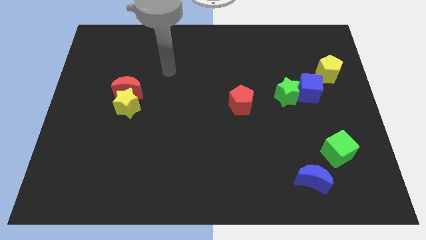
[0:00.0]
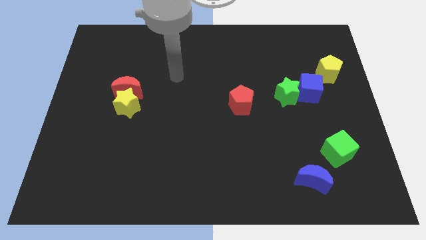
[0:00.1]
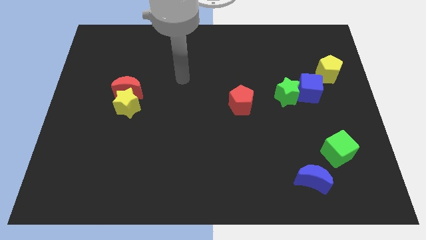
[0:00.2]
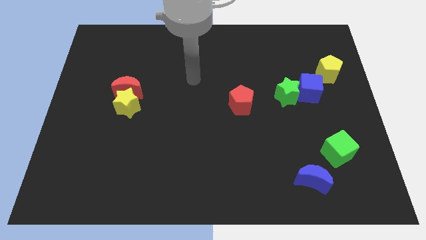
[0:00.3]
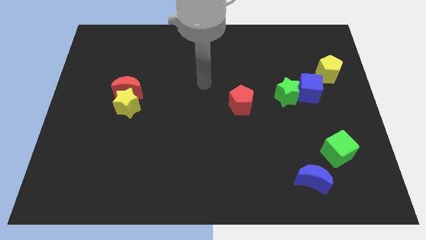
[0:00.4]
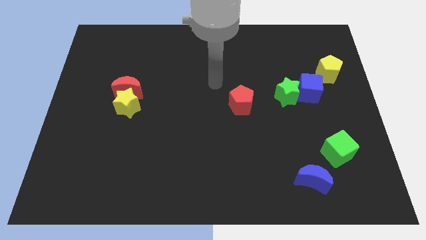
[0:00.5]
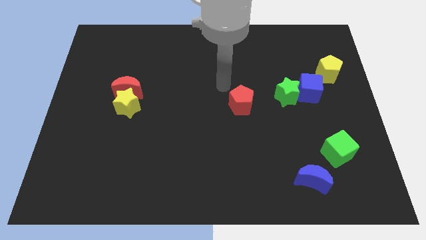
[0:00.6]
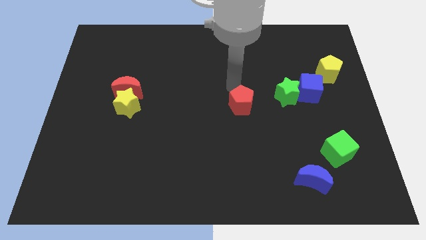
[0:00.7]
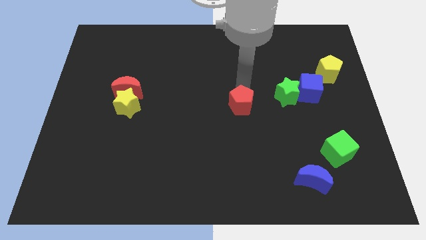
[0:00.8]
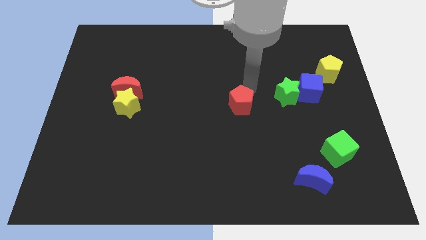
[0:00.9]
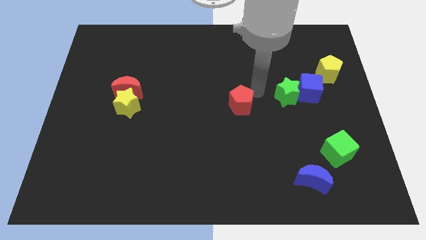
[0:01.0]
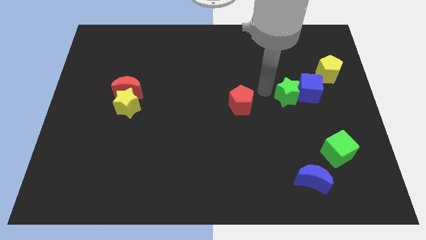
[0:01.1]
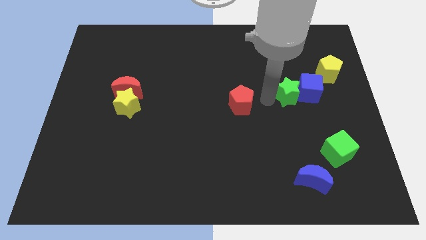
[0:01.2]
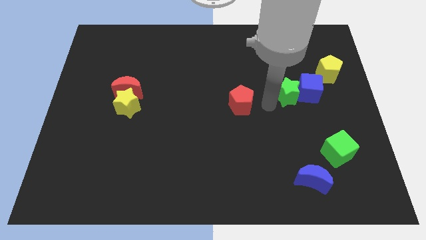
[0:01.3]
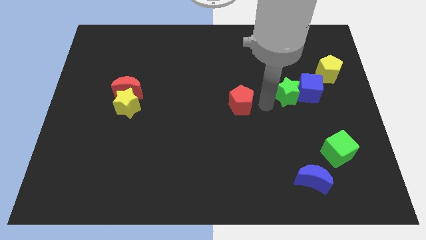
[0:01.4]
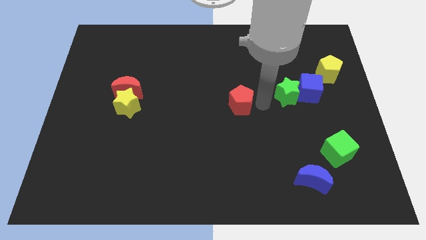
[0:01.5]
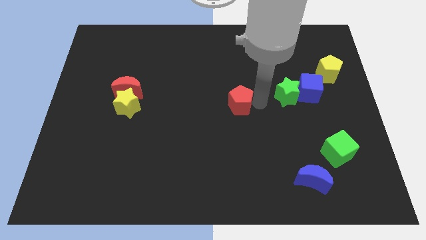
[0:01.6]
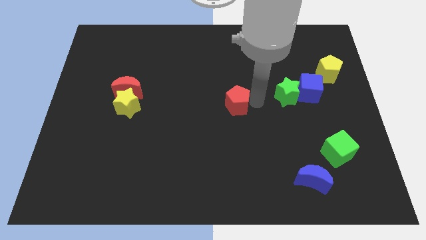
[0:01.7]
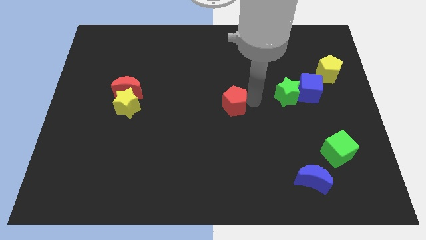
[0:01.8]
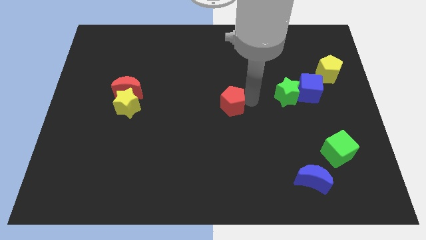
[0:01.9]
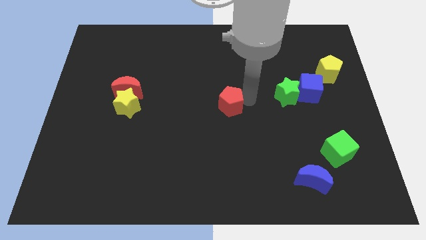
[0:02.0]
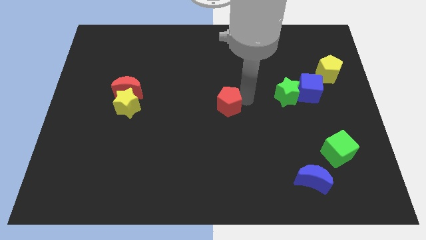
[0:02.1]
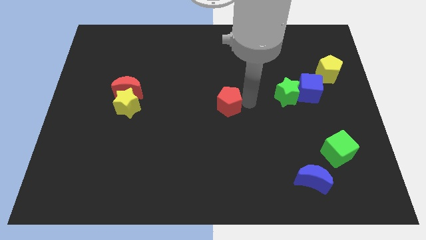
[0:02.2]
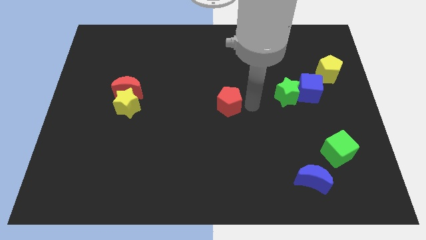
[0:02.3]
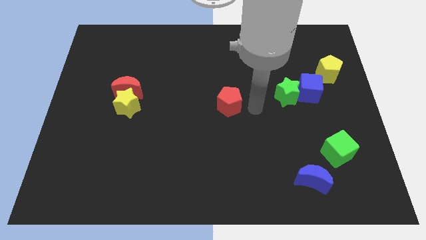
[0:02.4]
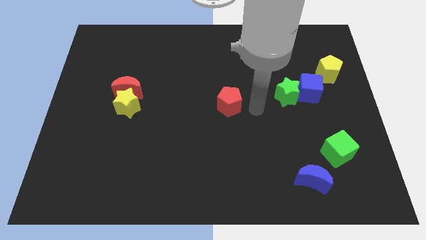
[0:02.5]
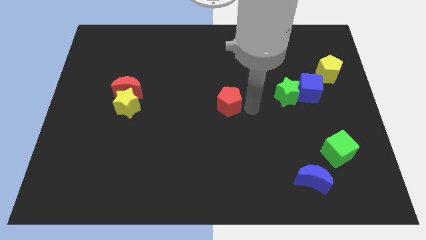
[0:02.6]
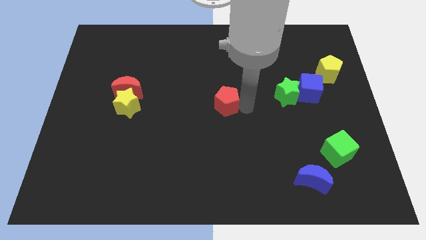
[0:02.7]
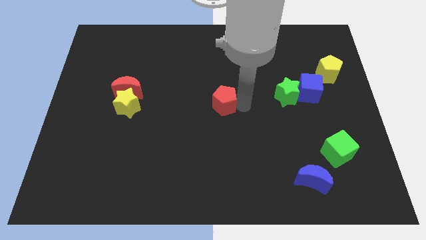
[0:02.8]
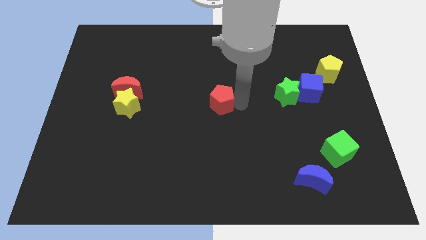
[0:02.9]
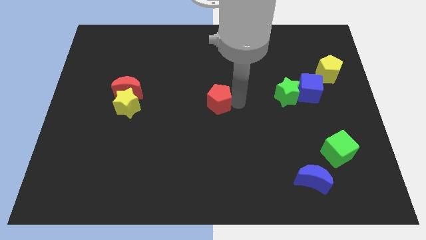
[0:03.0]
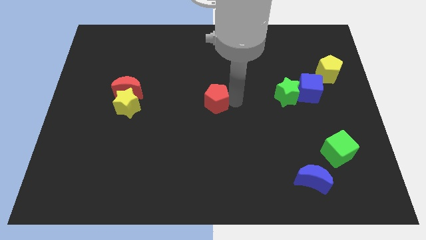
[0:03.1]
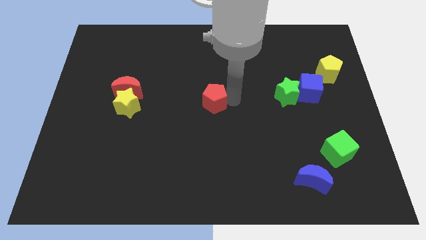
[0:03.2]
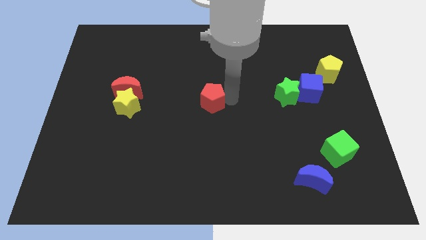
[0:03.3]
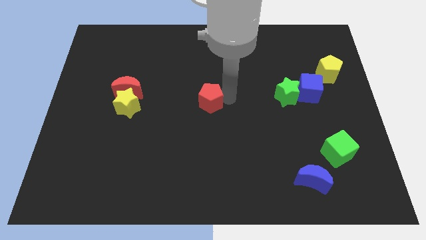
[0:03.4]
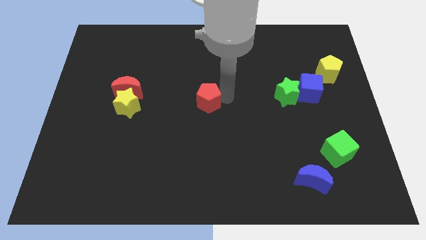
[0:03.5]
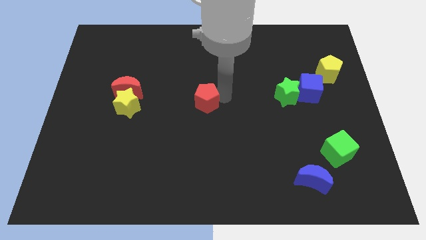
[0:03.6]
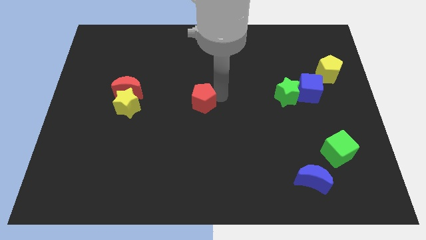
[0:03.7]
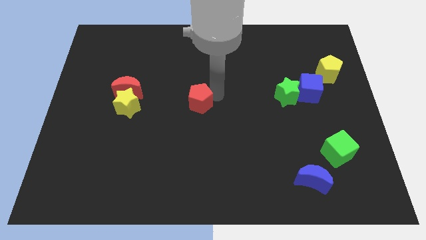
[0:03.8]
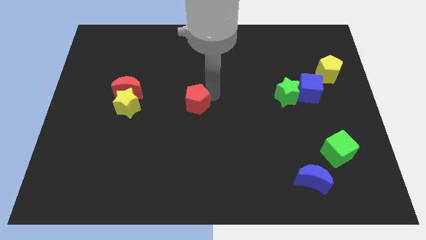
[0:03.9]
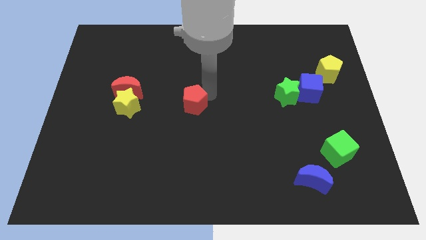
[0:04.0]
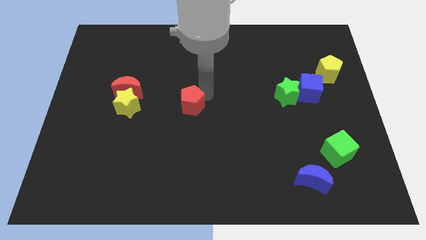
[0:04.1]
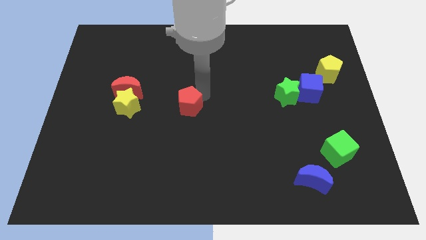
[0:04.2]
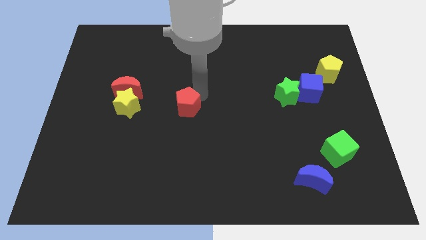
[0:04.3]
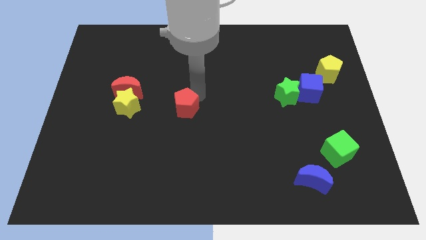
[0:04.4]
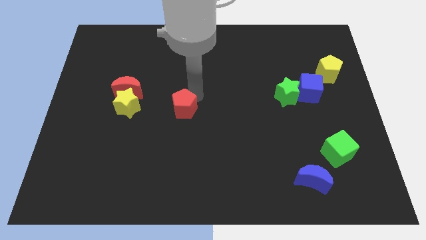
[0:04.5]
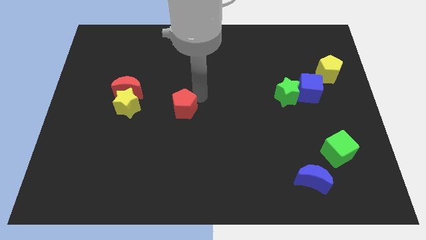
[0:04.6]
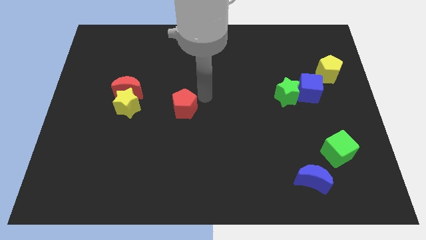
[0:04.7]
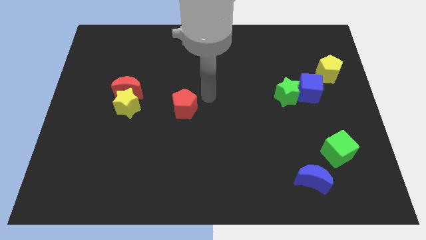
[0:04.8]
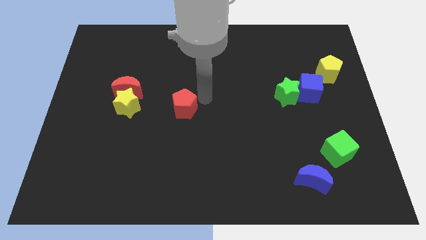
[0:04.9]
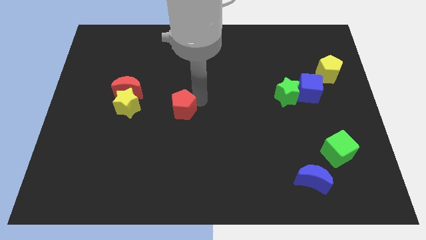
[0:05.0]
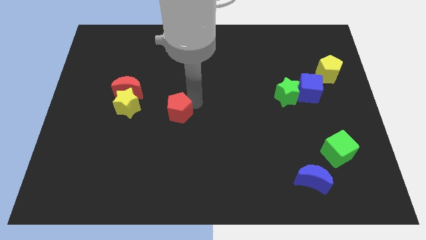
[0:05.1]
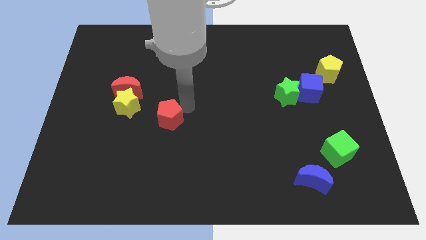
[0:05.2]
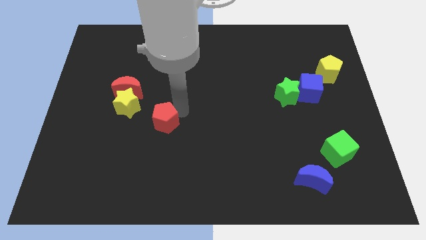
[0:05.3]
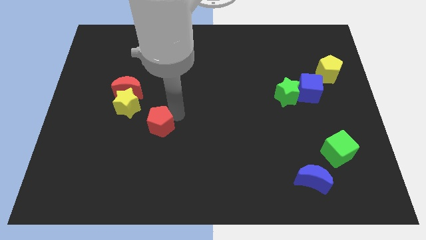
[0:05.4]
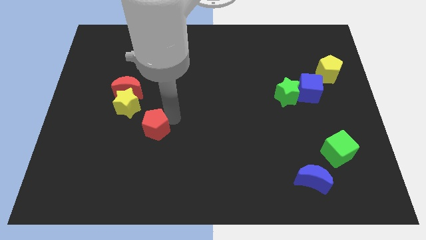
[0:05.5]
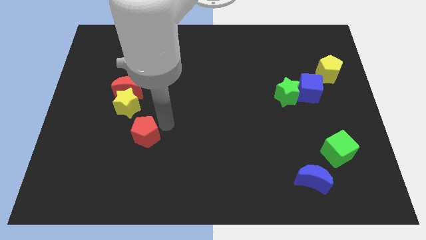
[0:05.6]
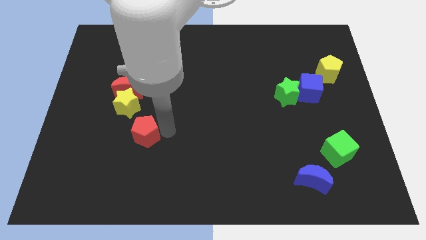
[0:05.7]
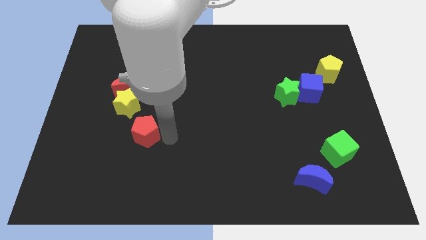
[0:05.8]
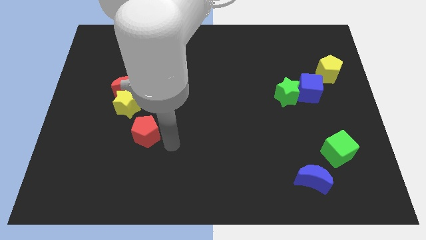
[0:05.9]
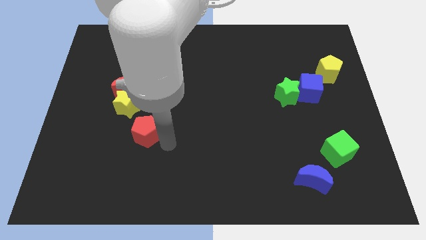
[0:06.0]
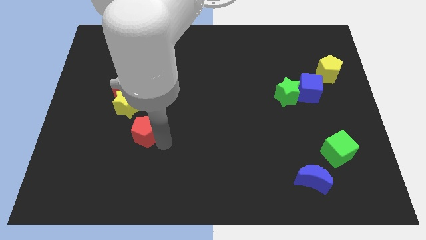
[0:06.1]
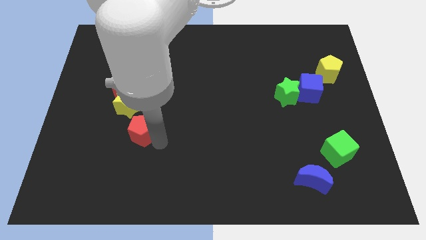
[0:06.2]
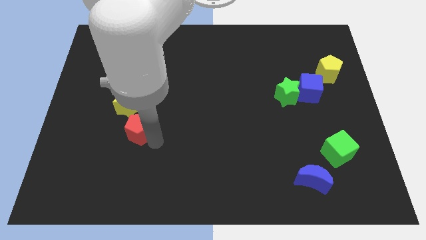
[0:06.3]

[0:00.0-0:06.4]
move the red pentagon to the left

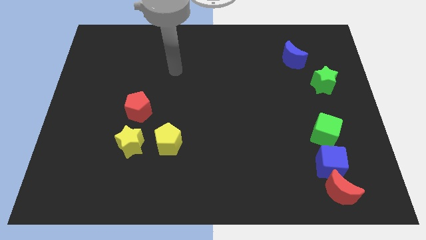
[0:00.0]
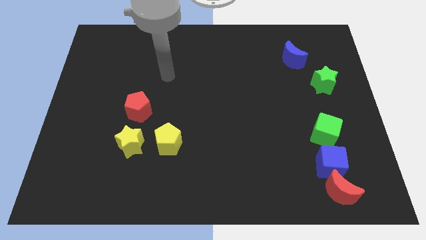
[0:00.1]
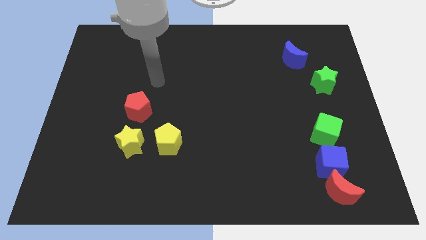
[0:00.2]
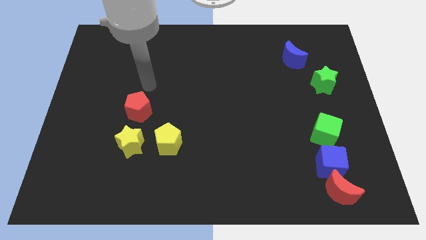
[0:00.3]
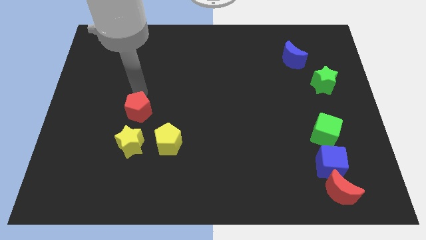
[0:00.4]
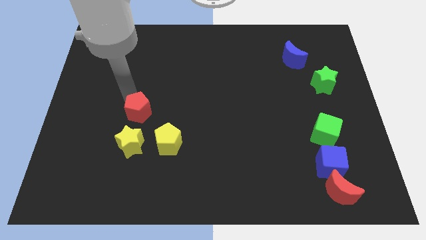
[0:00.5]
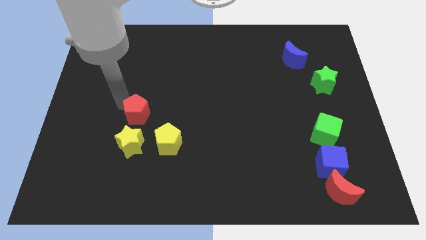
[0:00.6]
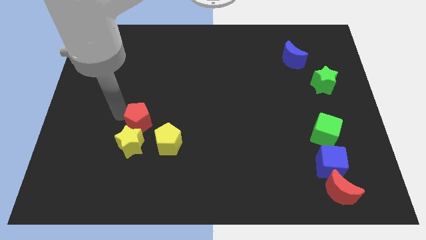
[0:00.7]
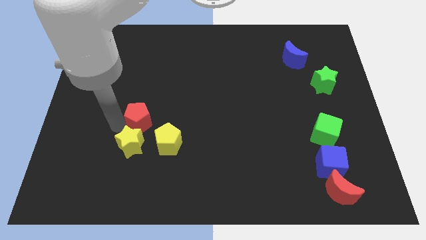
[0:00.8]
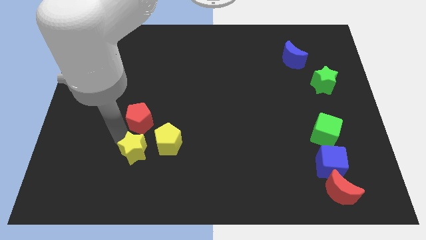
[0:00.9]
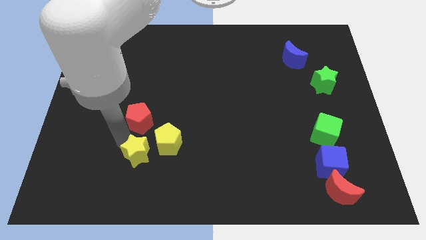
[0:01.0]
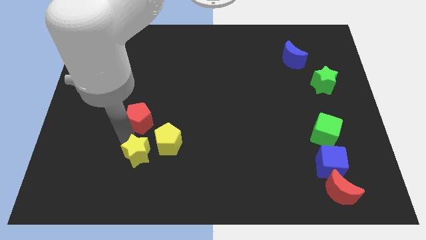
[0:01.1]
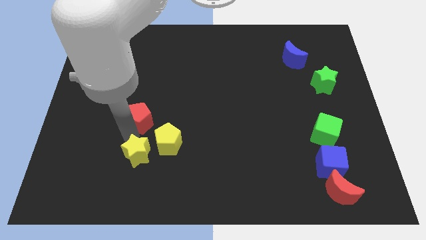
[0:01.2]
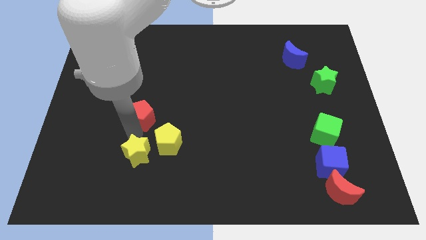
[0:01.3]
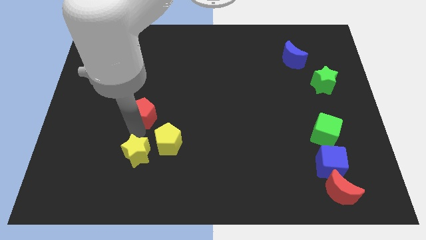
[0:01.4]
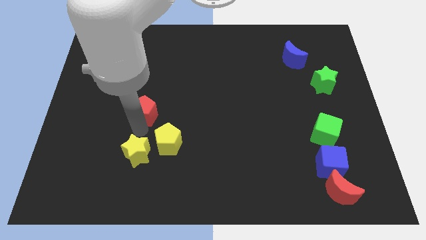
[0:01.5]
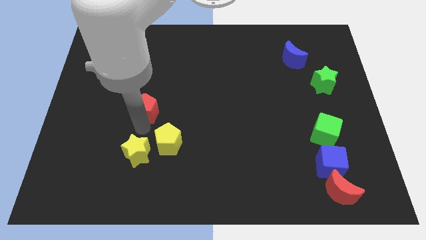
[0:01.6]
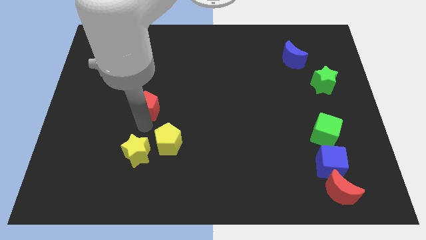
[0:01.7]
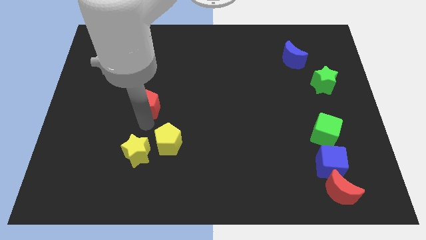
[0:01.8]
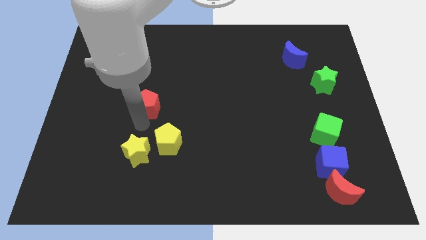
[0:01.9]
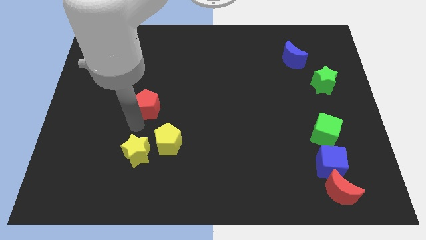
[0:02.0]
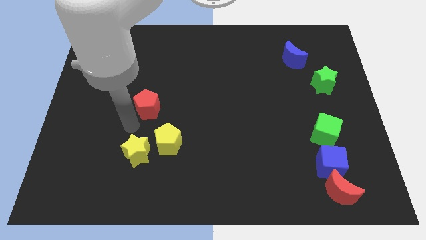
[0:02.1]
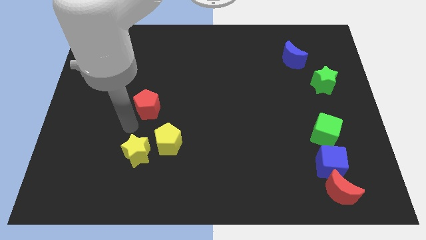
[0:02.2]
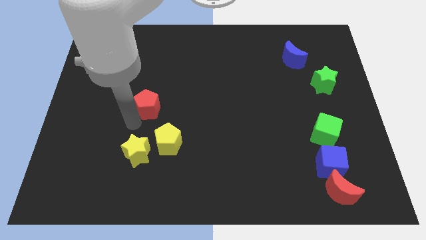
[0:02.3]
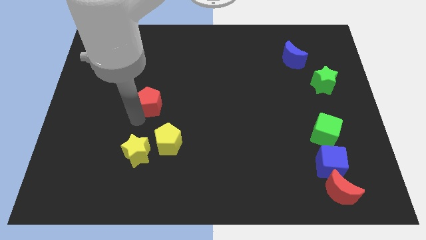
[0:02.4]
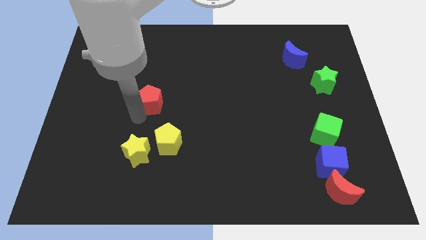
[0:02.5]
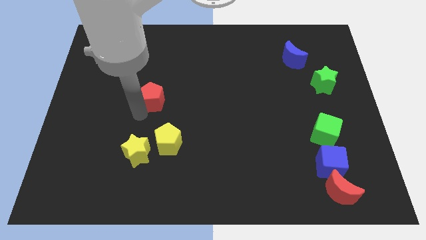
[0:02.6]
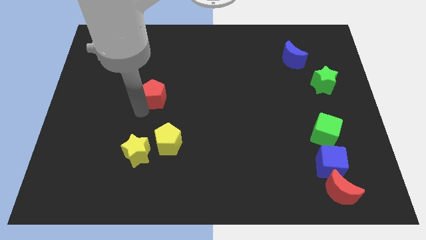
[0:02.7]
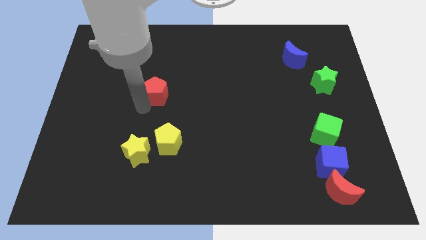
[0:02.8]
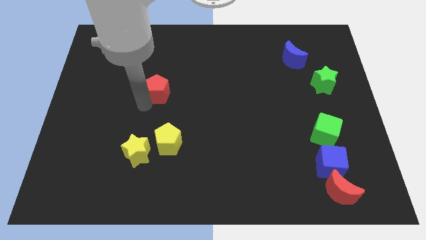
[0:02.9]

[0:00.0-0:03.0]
move the red pentagon up and then to the right a little bit
